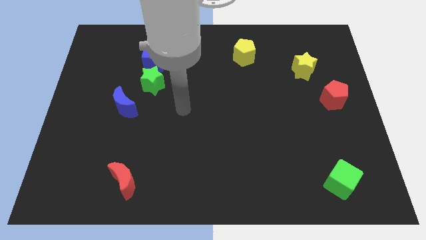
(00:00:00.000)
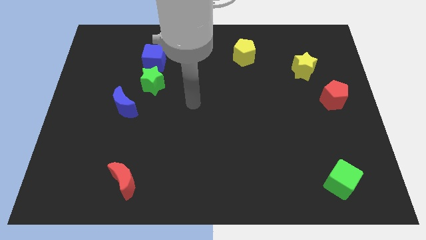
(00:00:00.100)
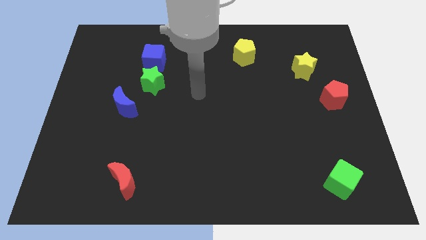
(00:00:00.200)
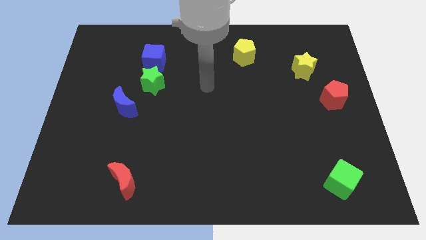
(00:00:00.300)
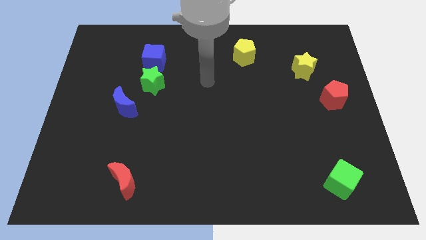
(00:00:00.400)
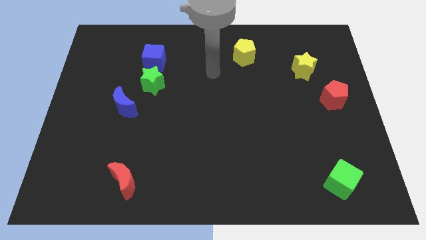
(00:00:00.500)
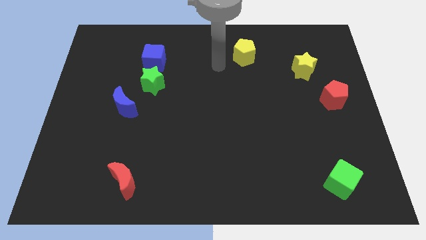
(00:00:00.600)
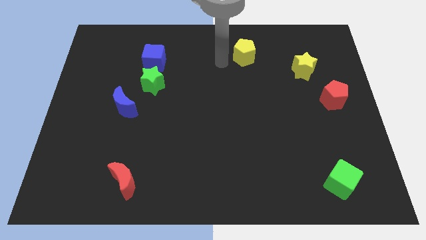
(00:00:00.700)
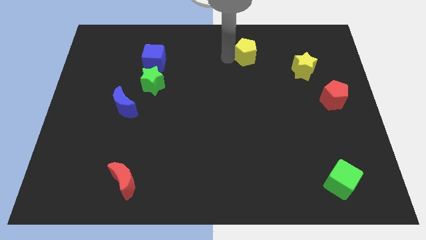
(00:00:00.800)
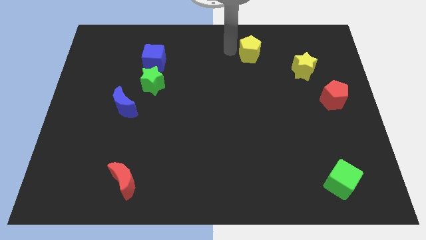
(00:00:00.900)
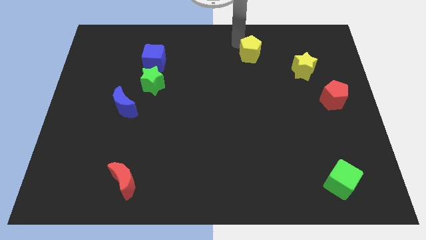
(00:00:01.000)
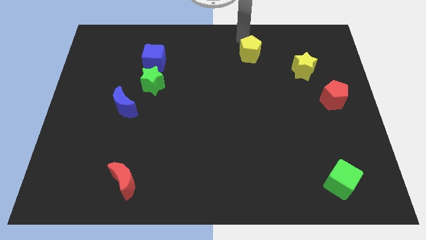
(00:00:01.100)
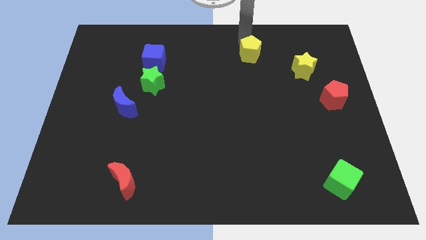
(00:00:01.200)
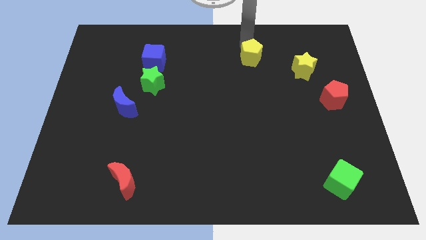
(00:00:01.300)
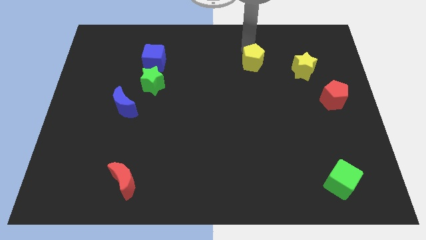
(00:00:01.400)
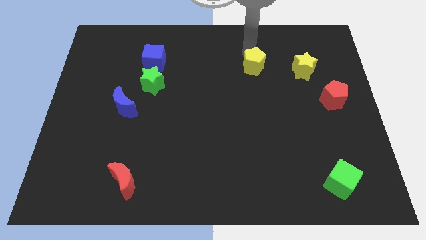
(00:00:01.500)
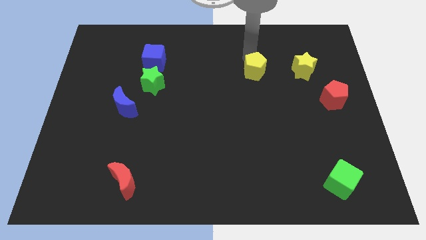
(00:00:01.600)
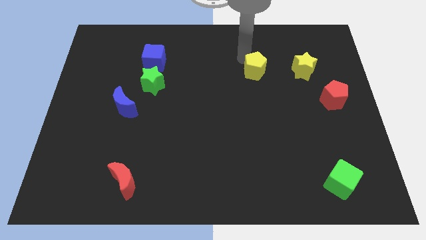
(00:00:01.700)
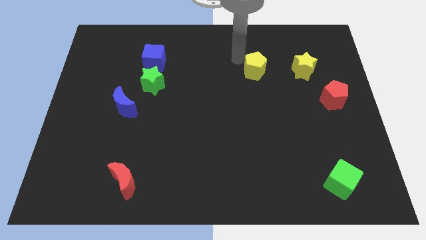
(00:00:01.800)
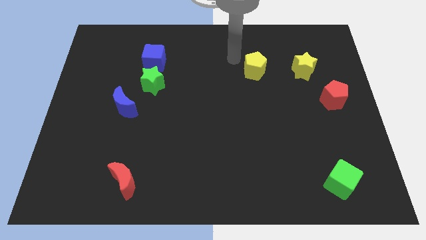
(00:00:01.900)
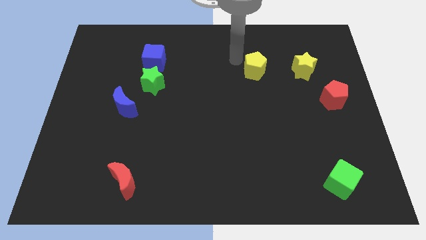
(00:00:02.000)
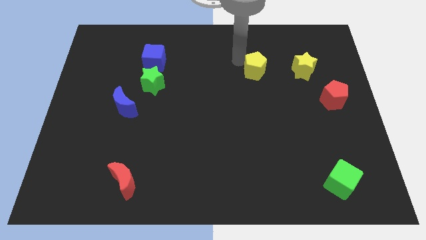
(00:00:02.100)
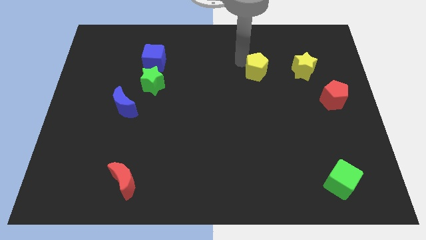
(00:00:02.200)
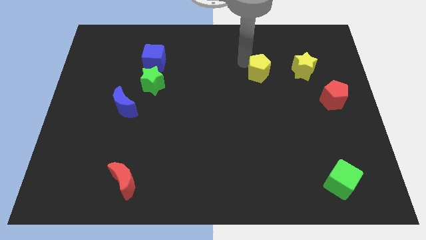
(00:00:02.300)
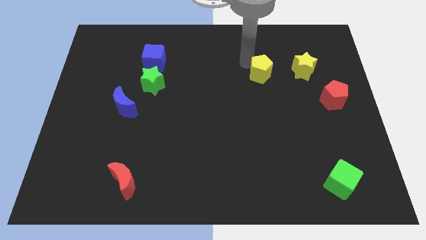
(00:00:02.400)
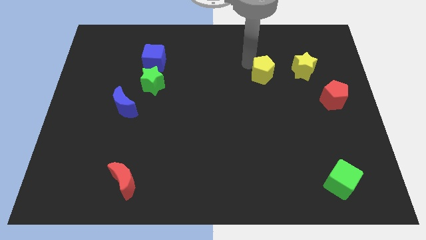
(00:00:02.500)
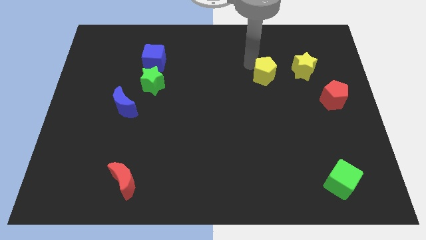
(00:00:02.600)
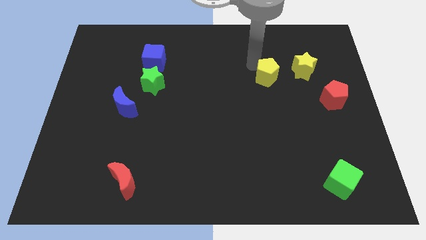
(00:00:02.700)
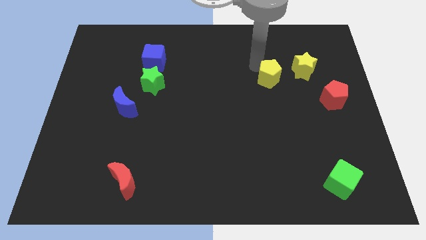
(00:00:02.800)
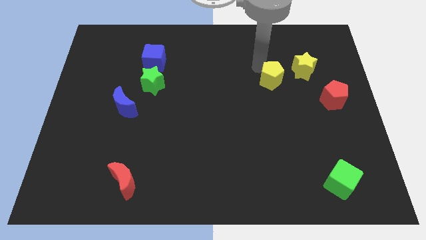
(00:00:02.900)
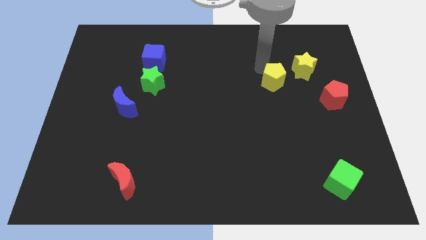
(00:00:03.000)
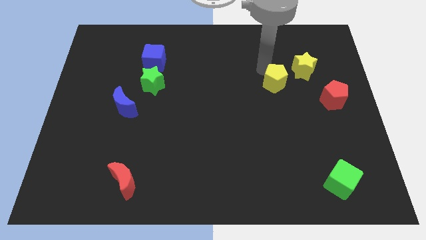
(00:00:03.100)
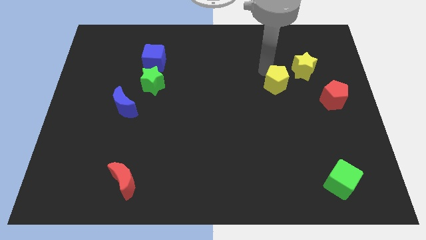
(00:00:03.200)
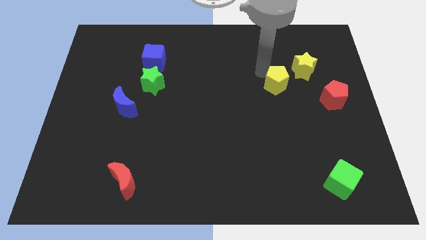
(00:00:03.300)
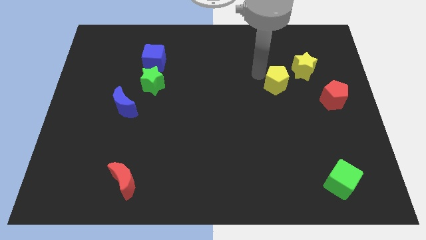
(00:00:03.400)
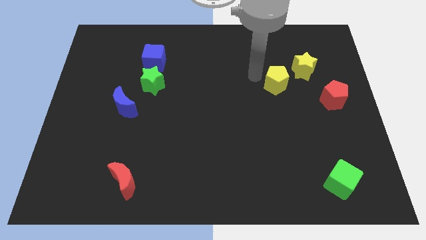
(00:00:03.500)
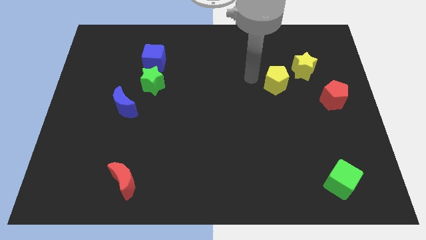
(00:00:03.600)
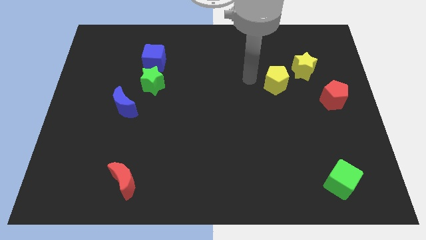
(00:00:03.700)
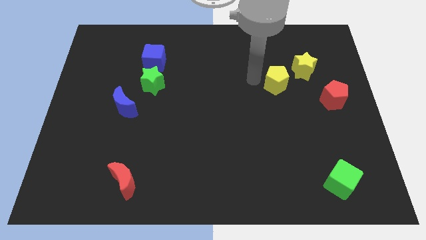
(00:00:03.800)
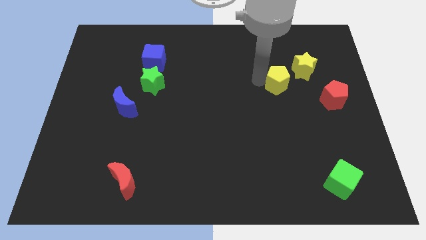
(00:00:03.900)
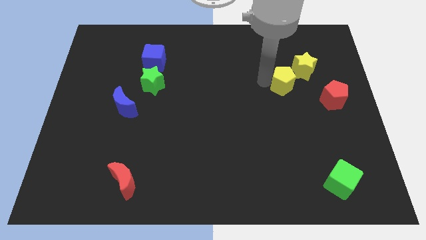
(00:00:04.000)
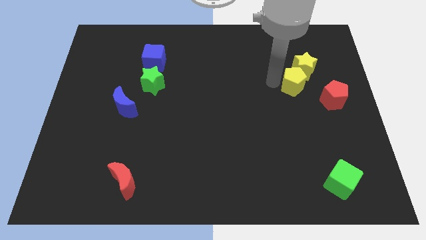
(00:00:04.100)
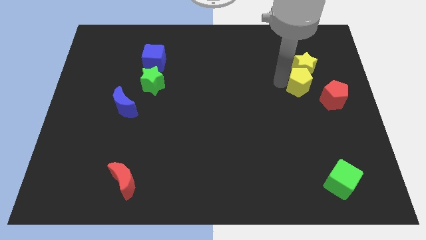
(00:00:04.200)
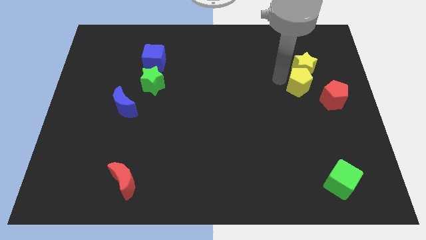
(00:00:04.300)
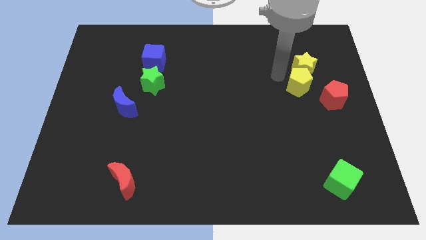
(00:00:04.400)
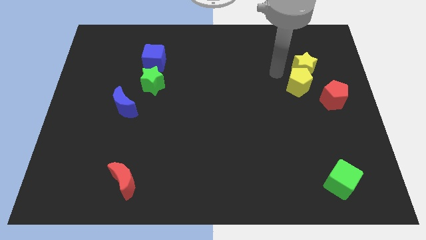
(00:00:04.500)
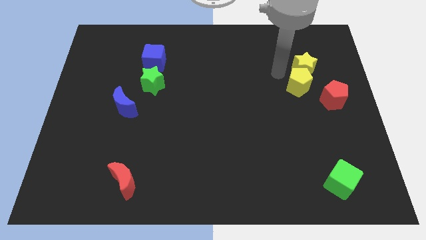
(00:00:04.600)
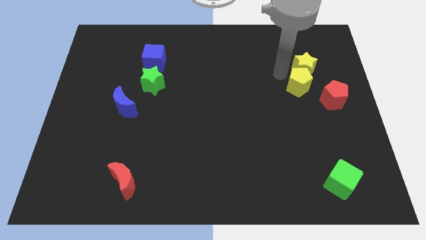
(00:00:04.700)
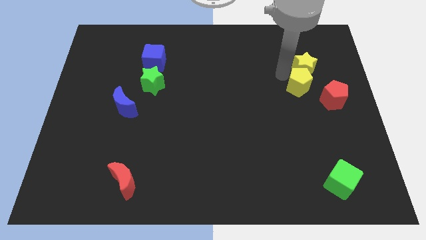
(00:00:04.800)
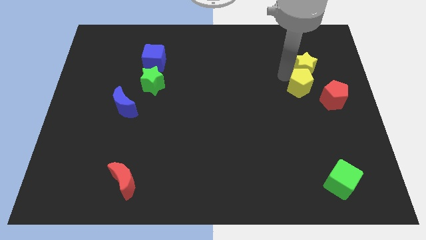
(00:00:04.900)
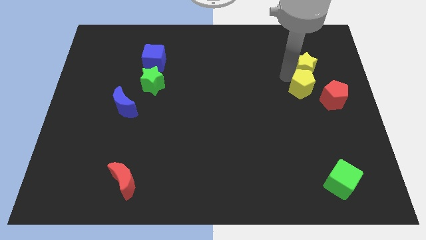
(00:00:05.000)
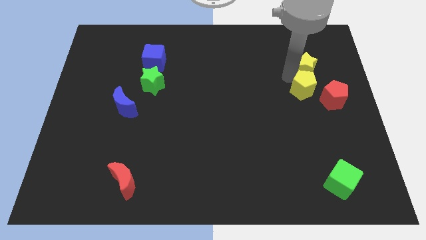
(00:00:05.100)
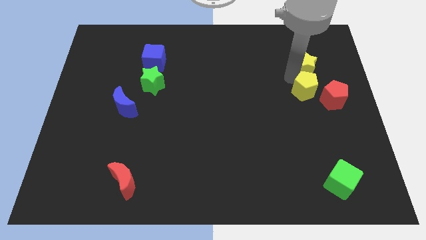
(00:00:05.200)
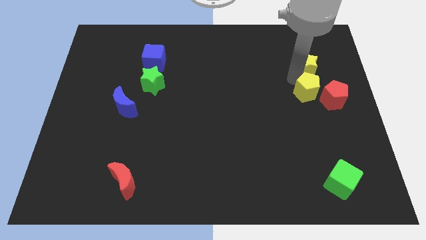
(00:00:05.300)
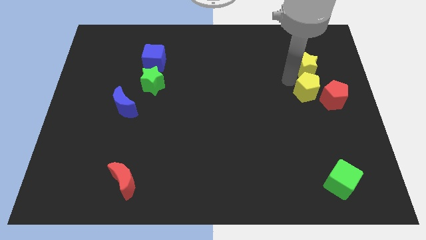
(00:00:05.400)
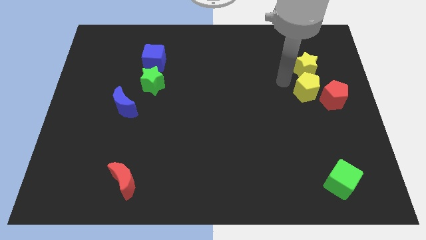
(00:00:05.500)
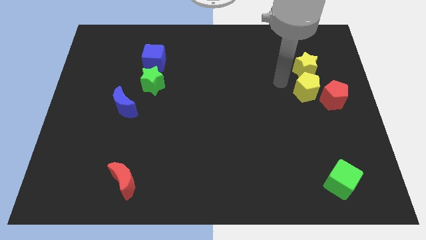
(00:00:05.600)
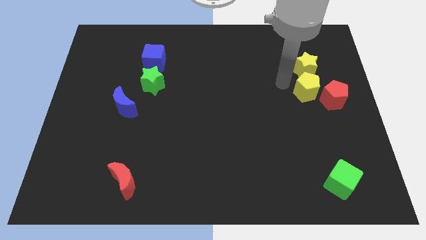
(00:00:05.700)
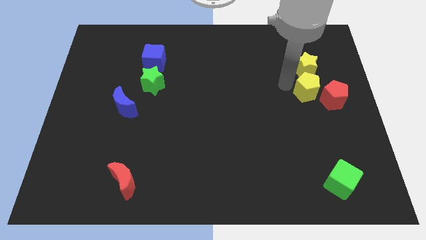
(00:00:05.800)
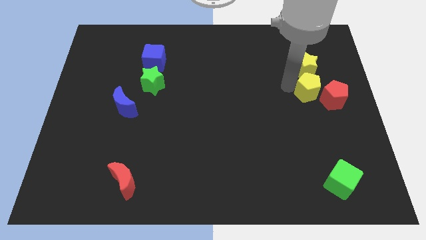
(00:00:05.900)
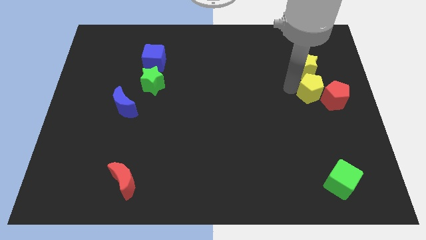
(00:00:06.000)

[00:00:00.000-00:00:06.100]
slide the yellow pentagon close to the red pentagon
